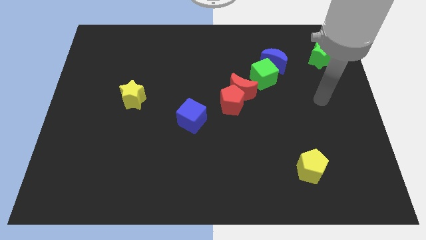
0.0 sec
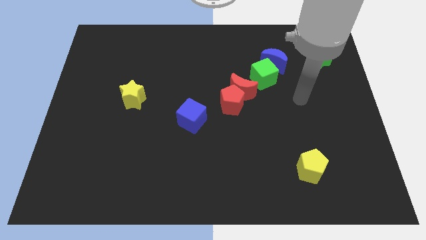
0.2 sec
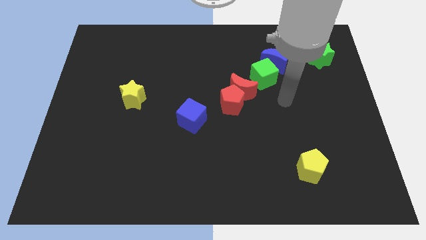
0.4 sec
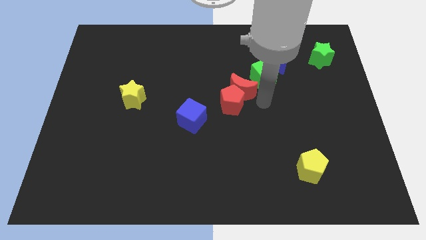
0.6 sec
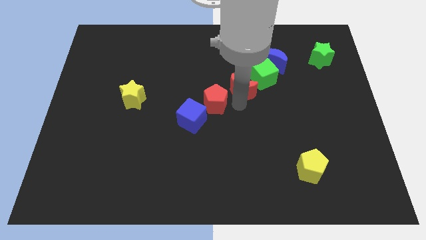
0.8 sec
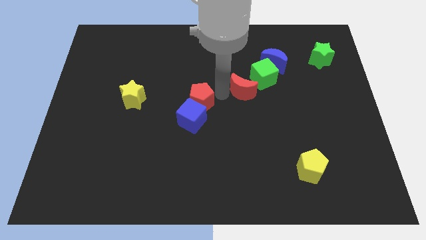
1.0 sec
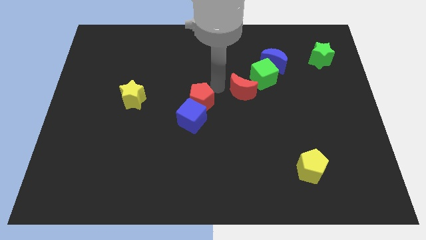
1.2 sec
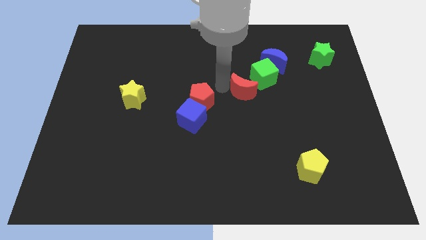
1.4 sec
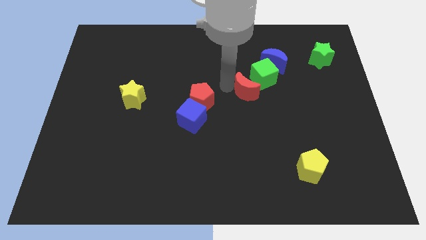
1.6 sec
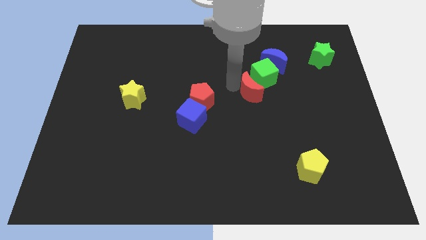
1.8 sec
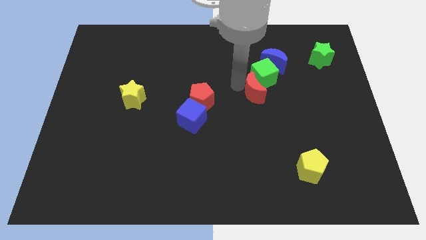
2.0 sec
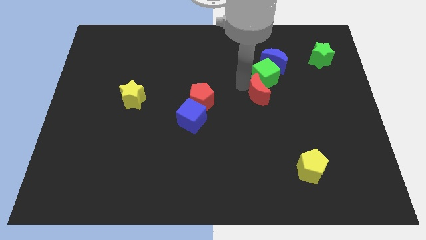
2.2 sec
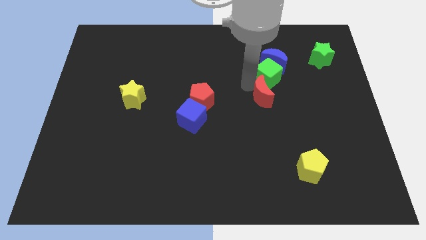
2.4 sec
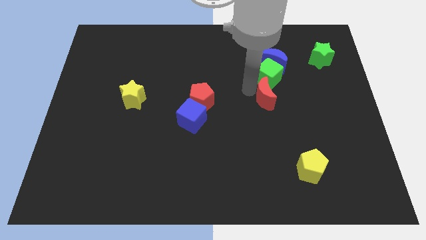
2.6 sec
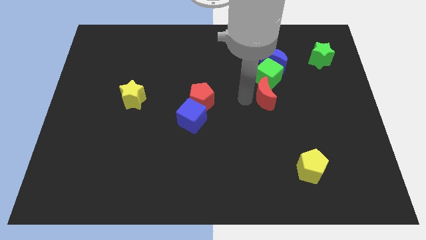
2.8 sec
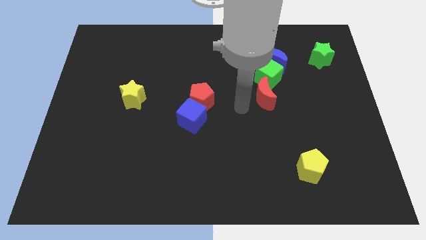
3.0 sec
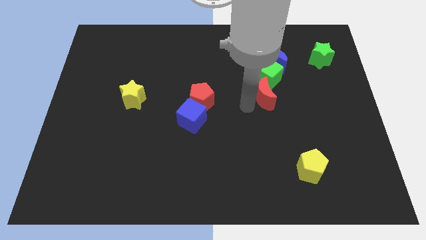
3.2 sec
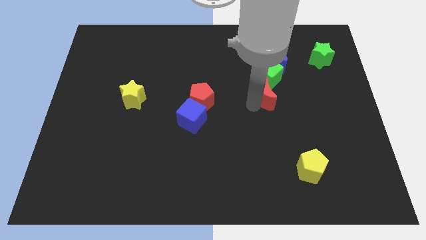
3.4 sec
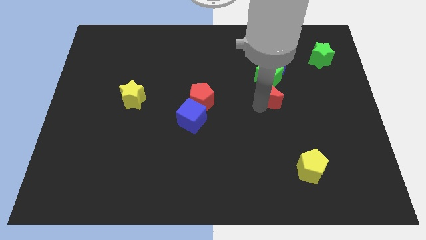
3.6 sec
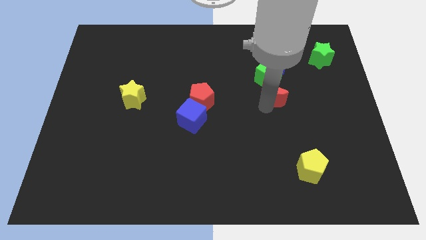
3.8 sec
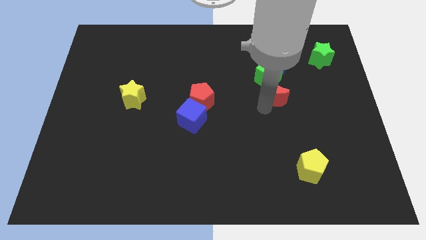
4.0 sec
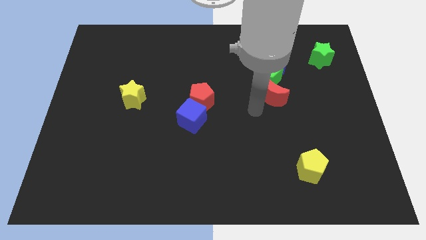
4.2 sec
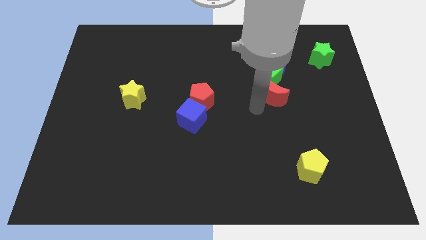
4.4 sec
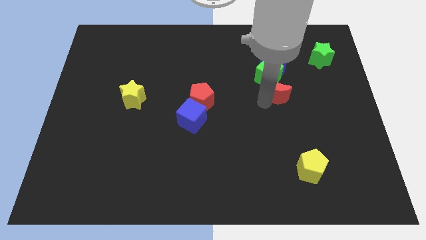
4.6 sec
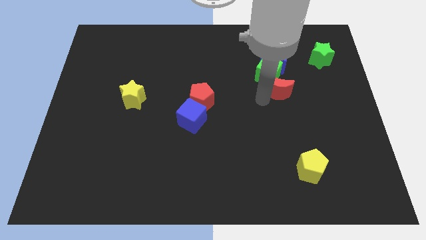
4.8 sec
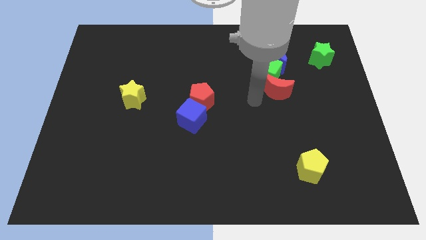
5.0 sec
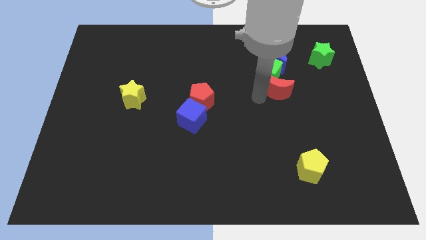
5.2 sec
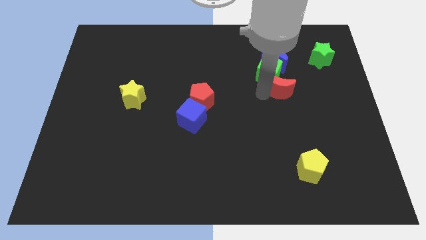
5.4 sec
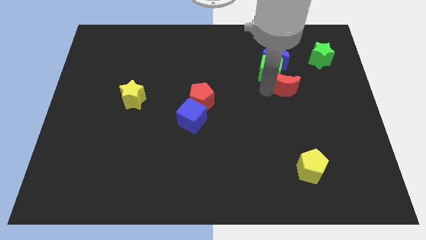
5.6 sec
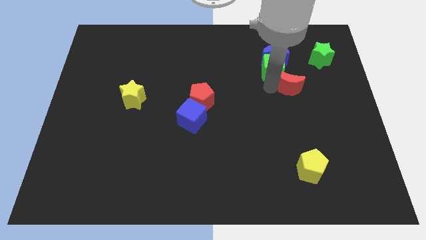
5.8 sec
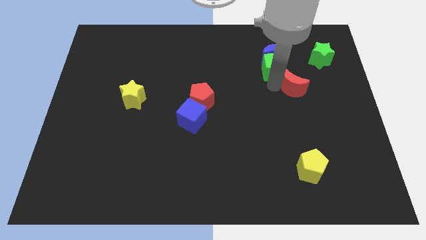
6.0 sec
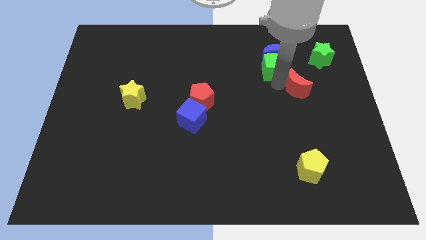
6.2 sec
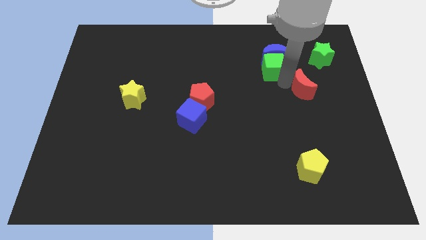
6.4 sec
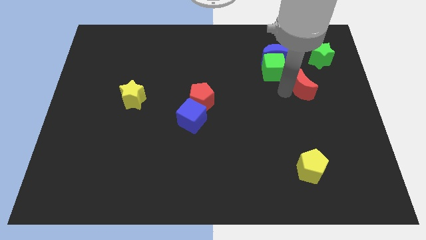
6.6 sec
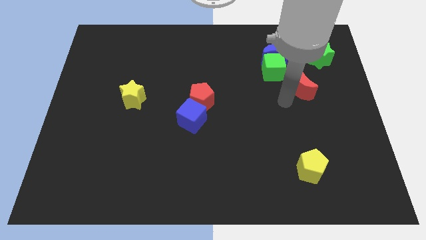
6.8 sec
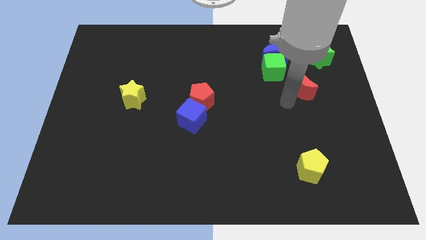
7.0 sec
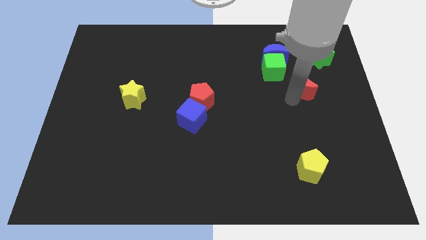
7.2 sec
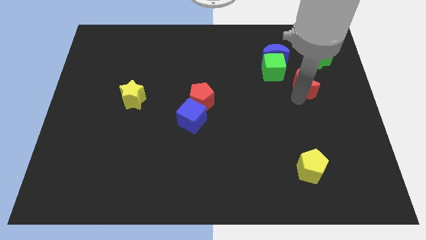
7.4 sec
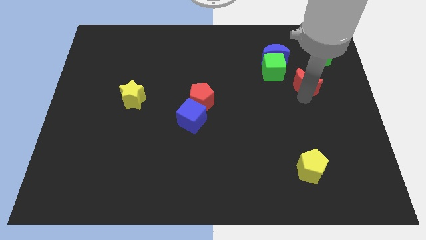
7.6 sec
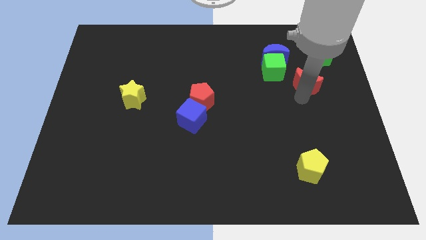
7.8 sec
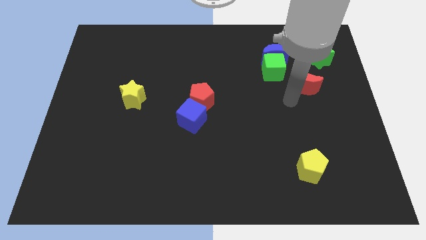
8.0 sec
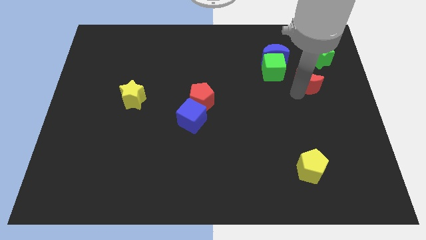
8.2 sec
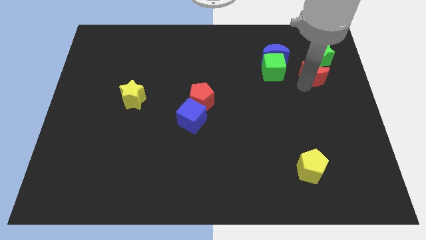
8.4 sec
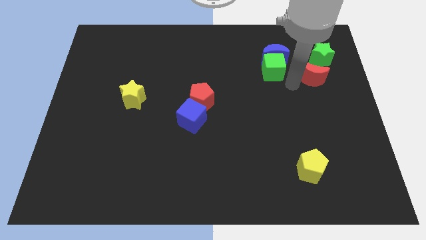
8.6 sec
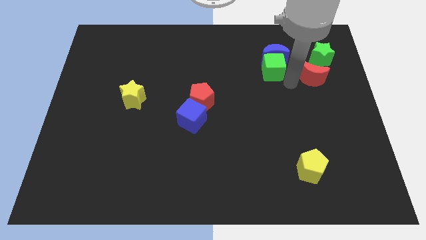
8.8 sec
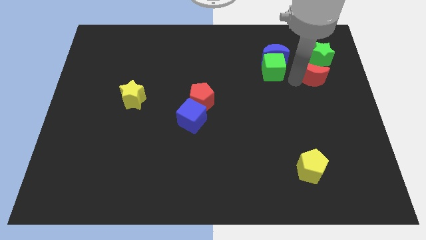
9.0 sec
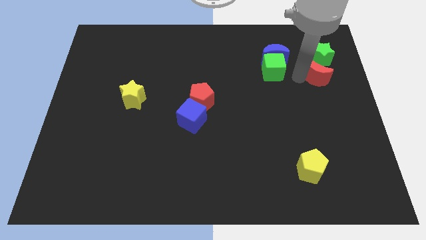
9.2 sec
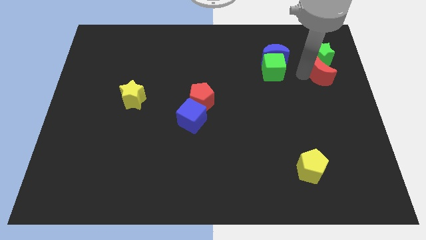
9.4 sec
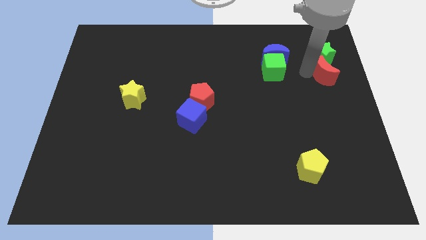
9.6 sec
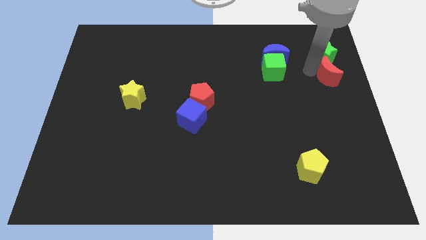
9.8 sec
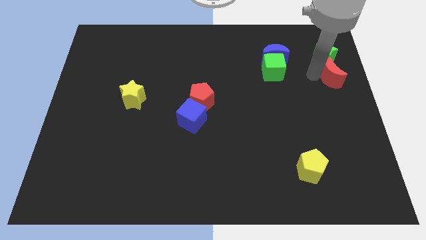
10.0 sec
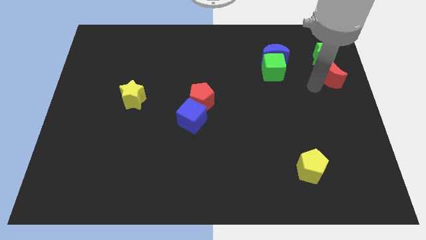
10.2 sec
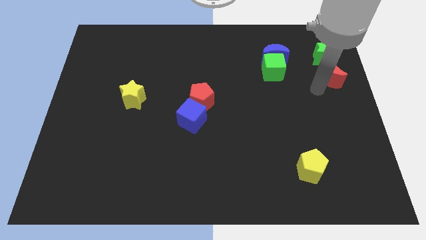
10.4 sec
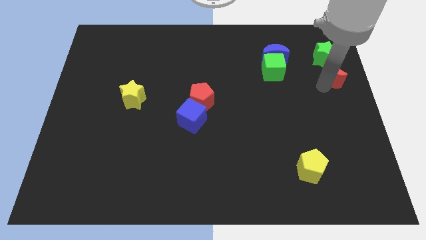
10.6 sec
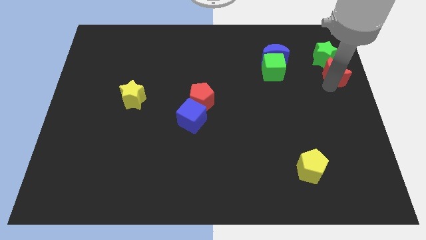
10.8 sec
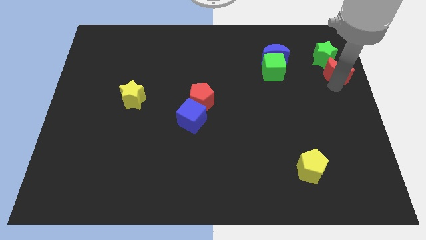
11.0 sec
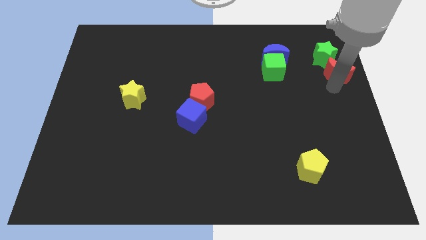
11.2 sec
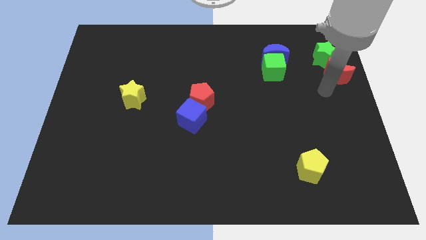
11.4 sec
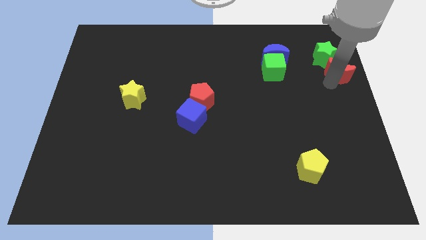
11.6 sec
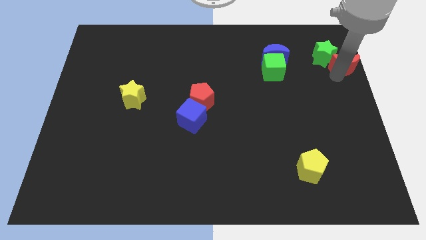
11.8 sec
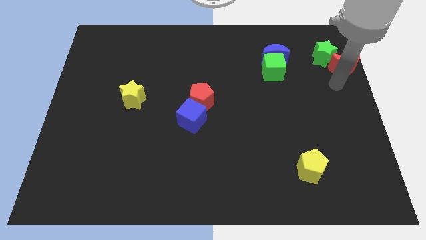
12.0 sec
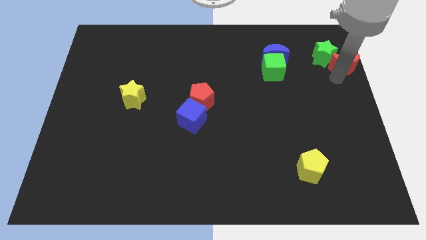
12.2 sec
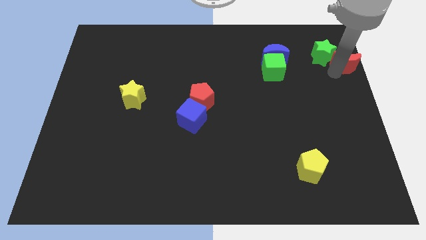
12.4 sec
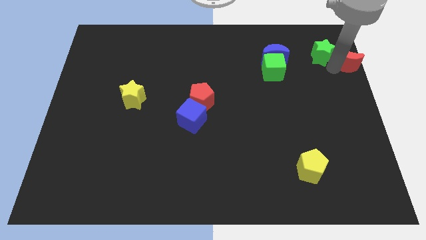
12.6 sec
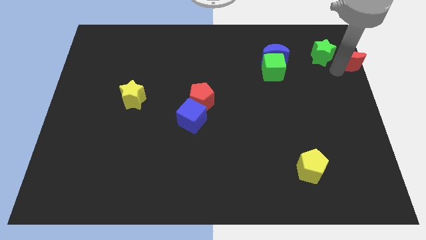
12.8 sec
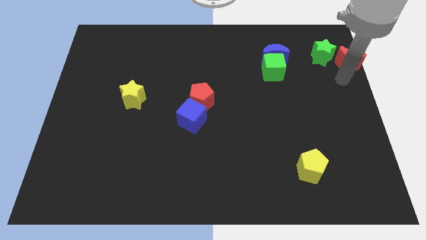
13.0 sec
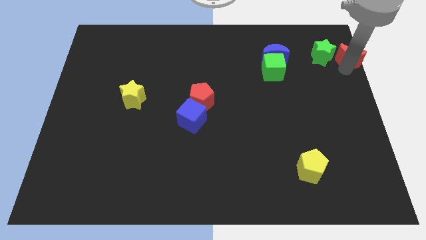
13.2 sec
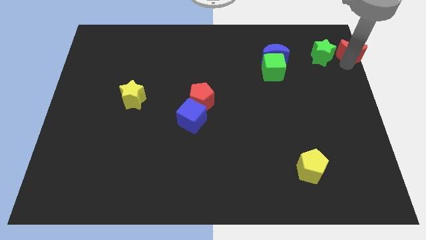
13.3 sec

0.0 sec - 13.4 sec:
put the red moon to the top right corner
